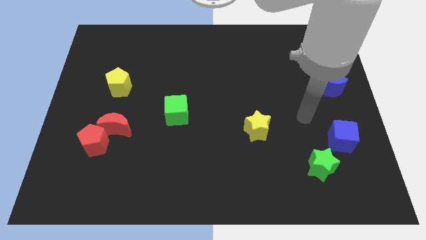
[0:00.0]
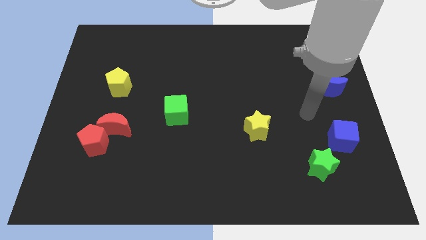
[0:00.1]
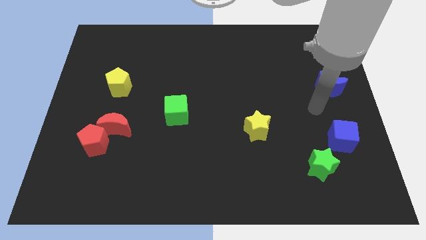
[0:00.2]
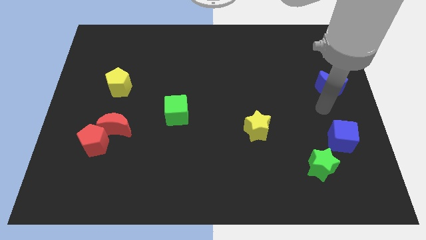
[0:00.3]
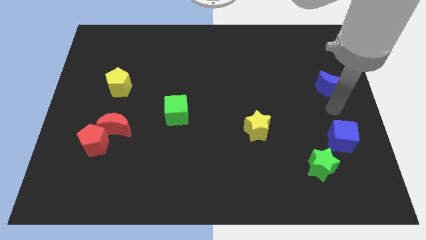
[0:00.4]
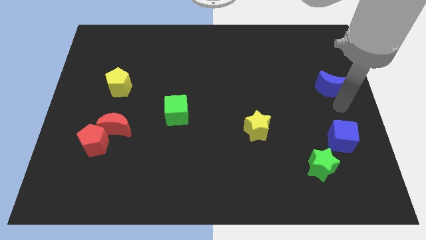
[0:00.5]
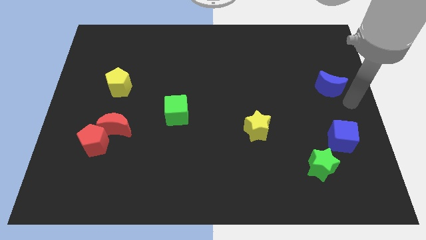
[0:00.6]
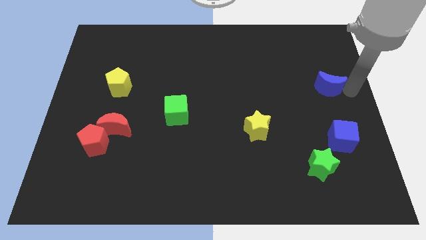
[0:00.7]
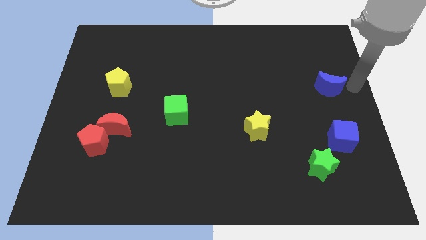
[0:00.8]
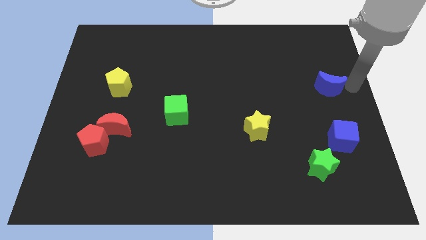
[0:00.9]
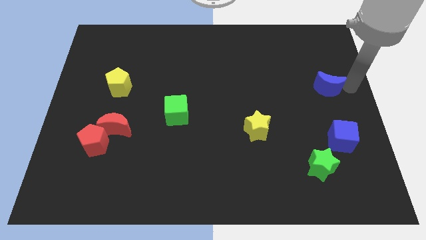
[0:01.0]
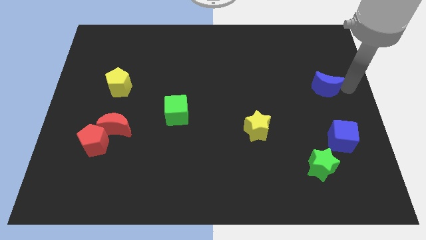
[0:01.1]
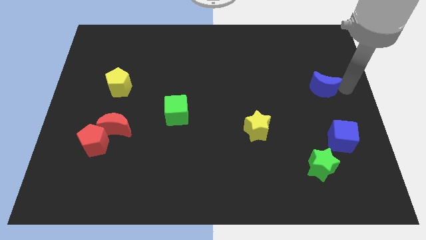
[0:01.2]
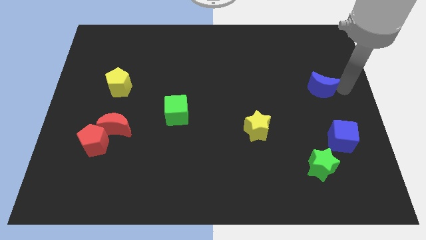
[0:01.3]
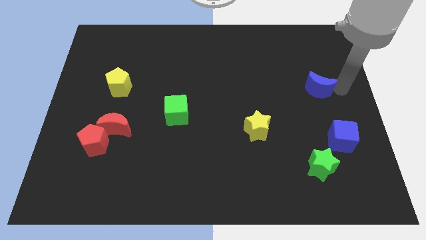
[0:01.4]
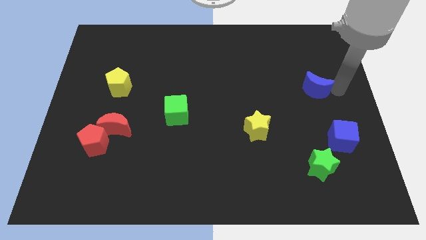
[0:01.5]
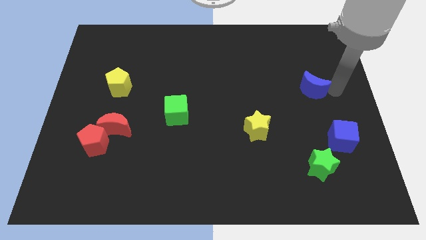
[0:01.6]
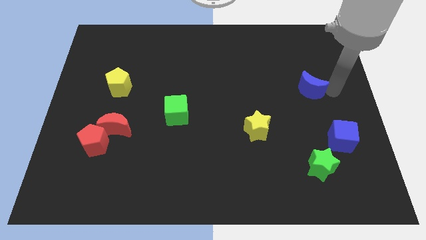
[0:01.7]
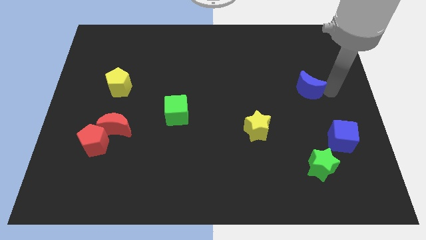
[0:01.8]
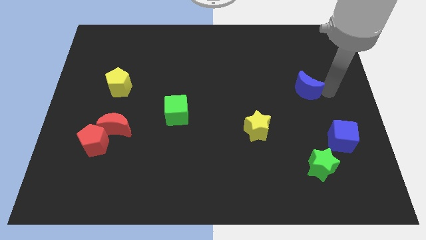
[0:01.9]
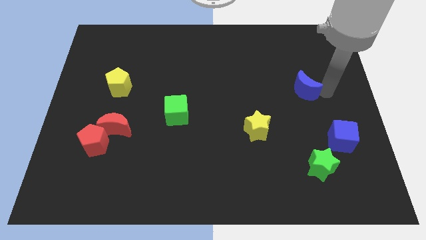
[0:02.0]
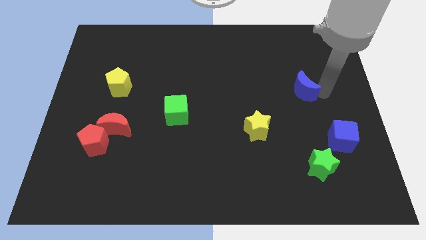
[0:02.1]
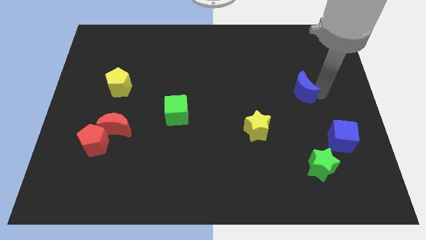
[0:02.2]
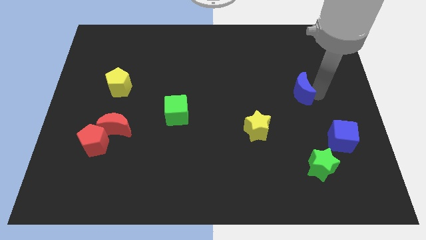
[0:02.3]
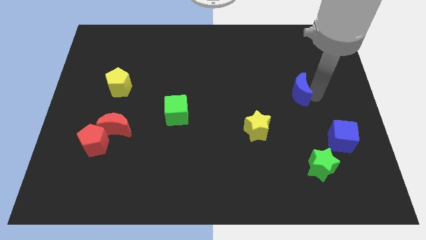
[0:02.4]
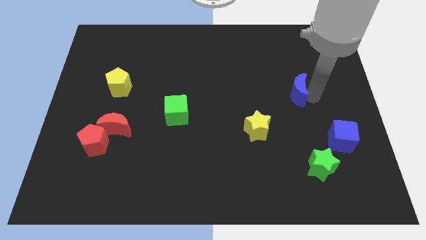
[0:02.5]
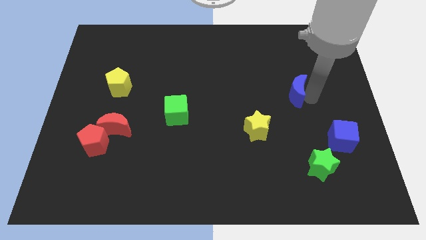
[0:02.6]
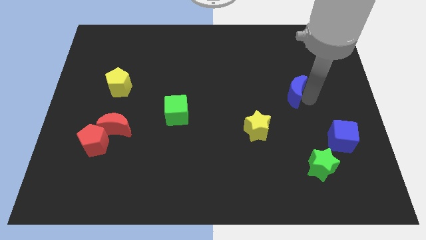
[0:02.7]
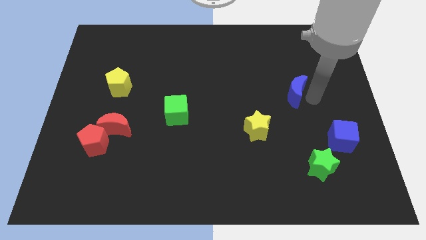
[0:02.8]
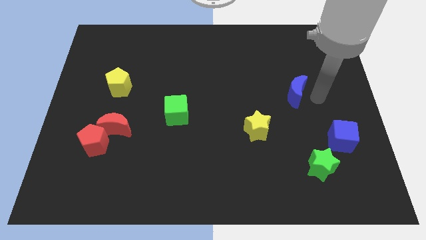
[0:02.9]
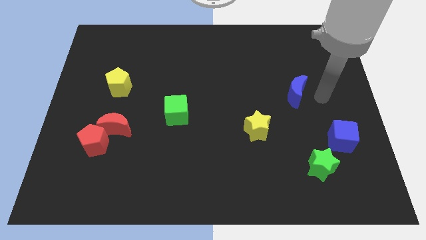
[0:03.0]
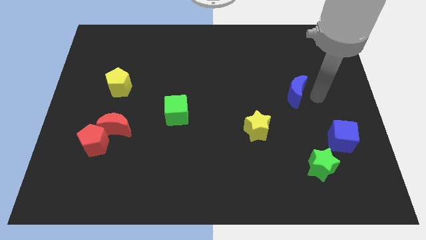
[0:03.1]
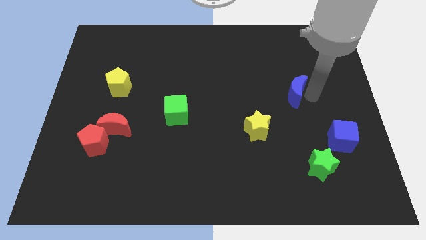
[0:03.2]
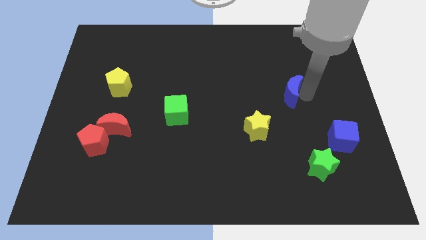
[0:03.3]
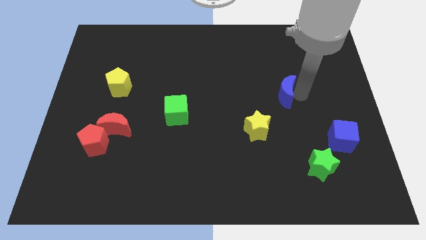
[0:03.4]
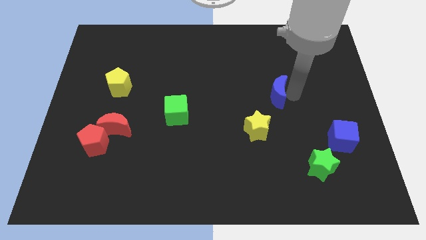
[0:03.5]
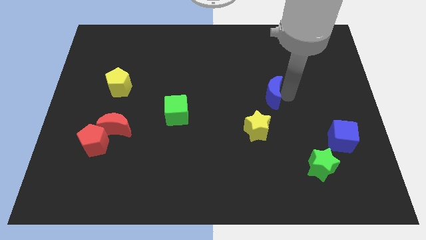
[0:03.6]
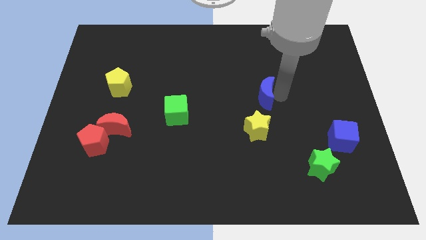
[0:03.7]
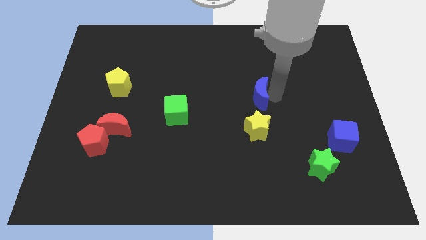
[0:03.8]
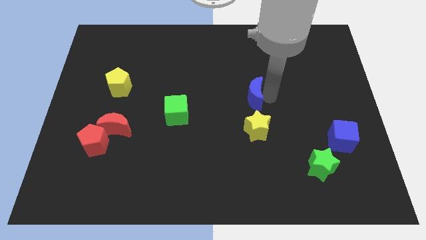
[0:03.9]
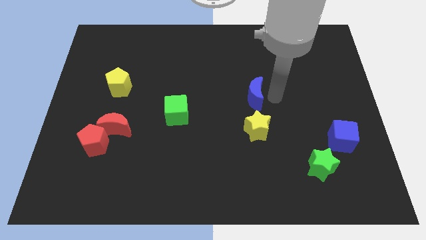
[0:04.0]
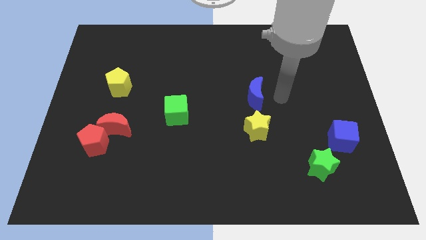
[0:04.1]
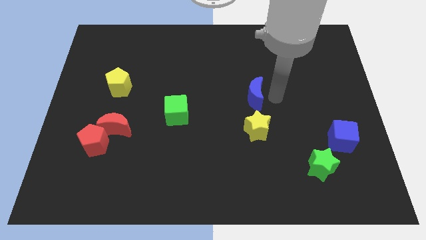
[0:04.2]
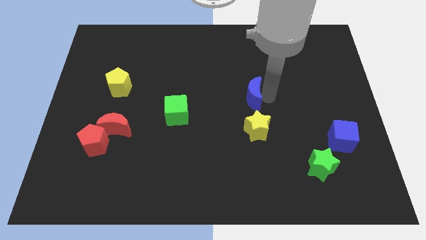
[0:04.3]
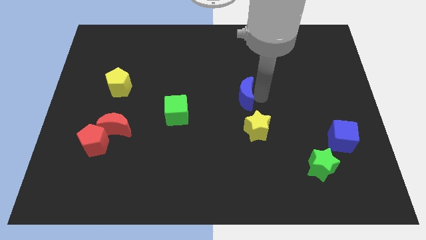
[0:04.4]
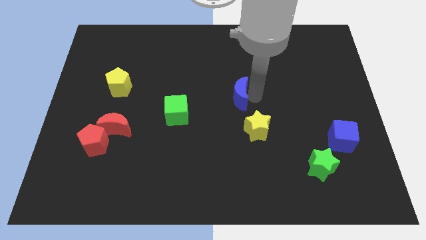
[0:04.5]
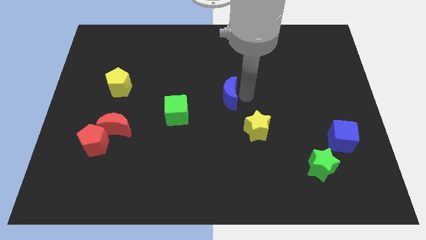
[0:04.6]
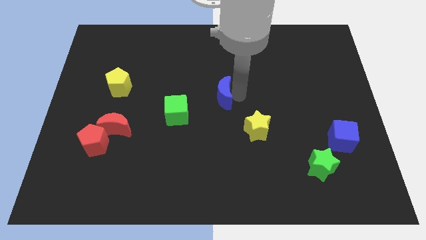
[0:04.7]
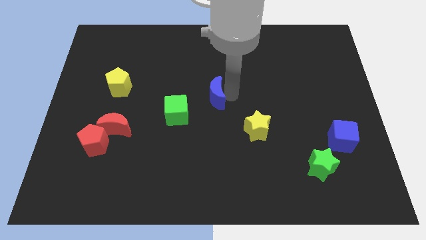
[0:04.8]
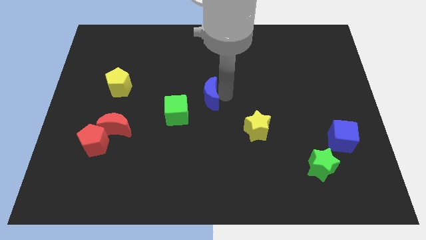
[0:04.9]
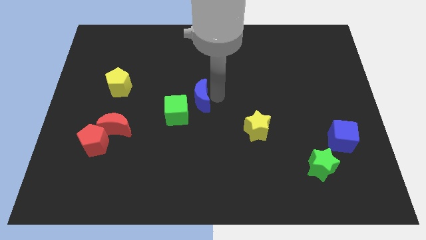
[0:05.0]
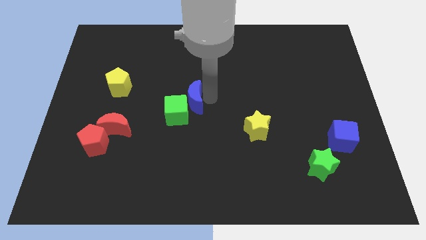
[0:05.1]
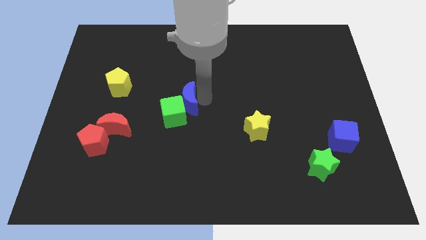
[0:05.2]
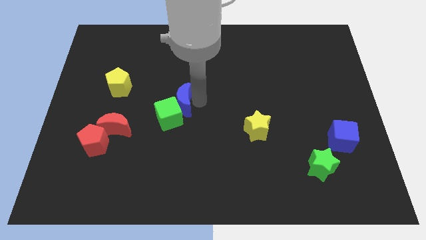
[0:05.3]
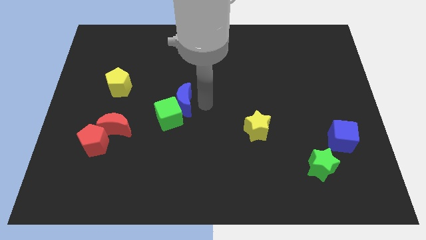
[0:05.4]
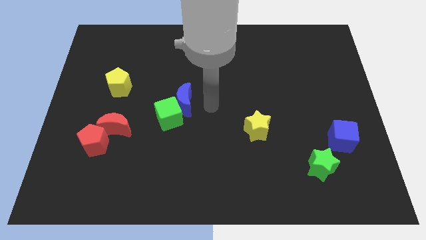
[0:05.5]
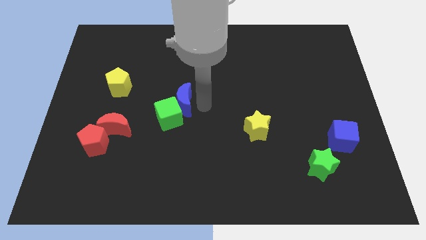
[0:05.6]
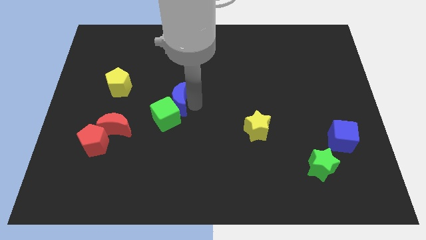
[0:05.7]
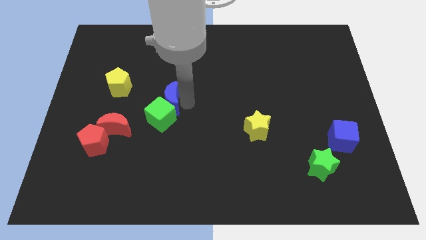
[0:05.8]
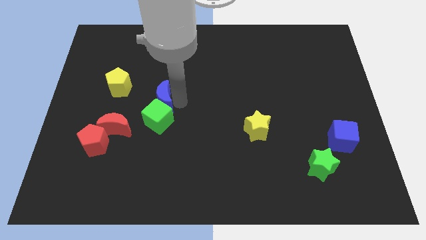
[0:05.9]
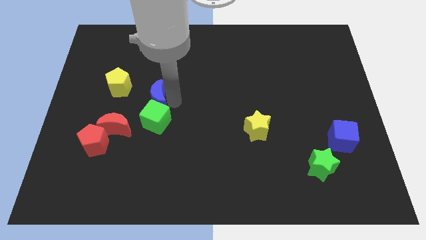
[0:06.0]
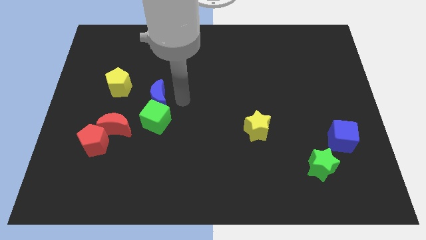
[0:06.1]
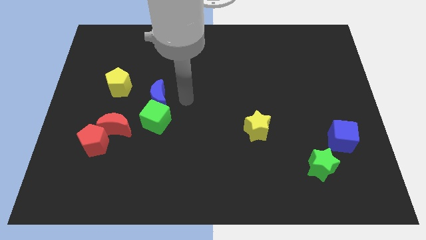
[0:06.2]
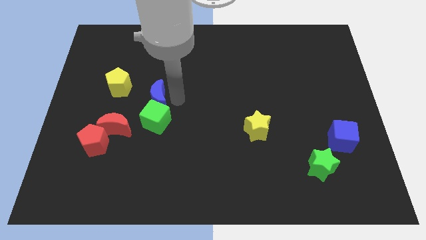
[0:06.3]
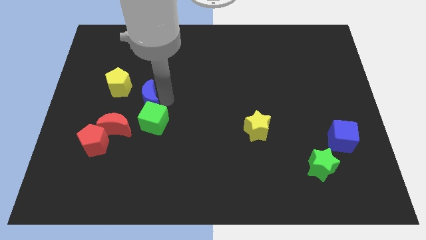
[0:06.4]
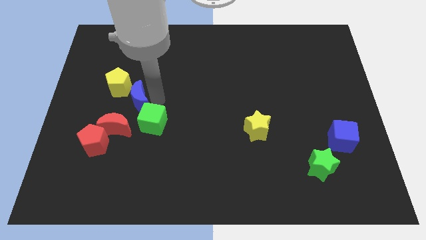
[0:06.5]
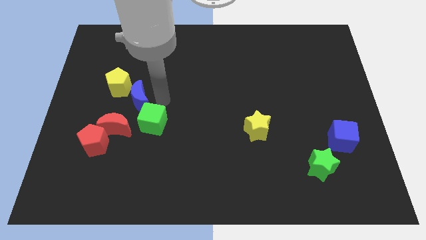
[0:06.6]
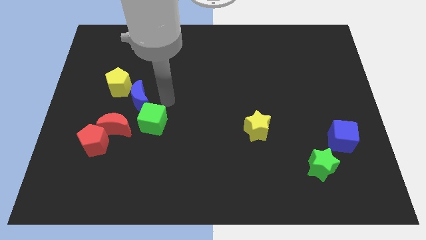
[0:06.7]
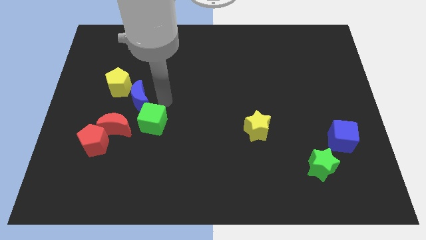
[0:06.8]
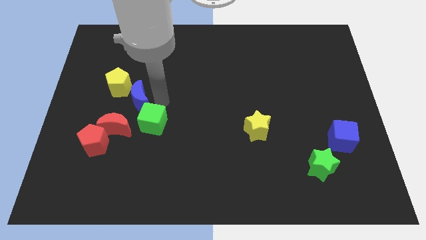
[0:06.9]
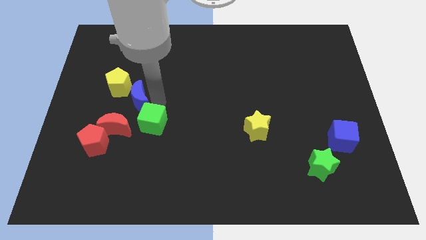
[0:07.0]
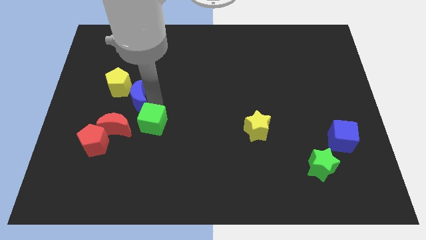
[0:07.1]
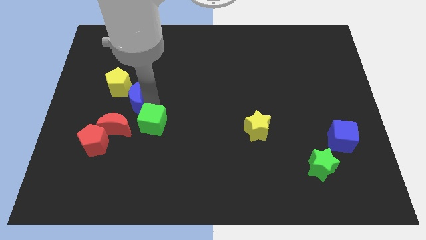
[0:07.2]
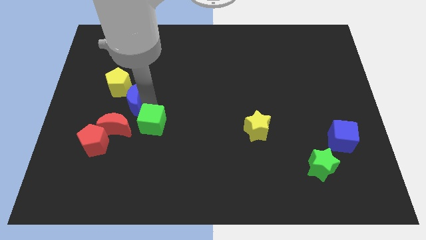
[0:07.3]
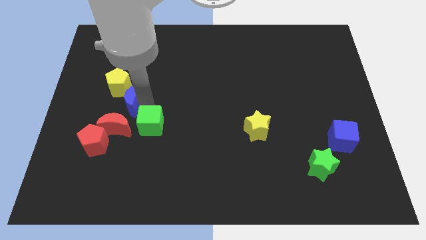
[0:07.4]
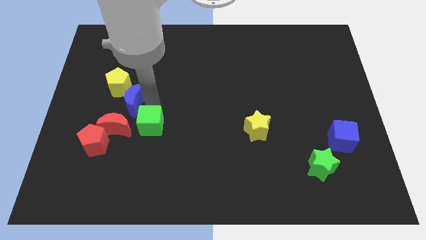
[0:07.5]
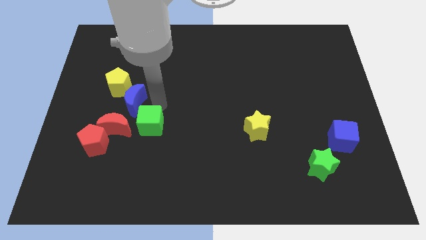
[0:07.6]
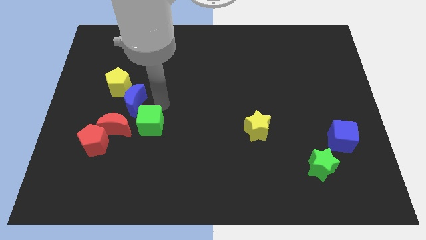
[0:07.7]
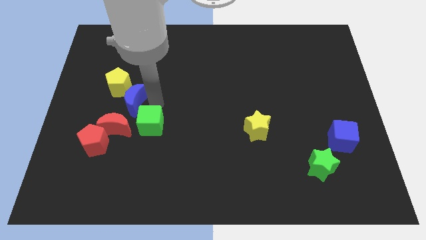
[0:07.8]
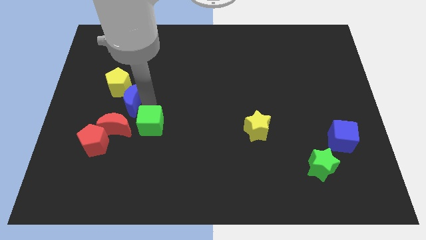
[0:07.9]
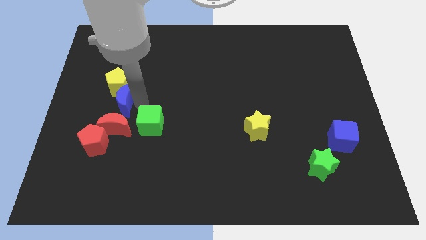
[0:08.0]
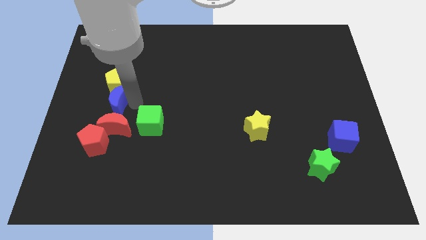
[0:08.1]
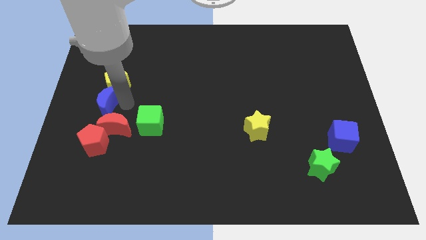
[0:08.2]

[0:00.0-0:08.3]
put the blue moon to the left side
